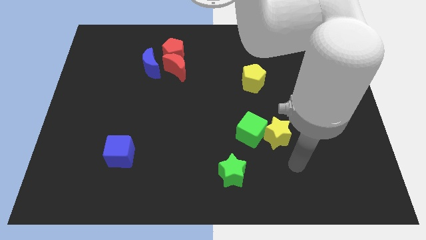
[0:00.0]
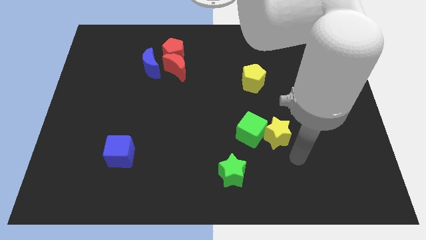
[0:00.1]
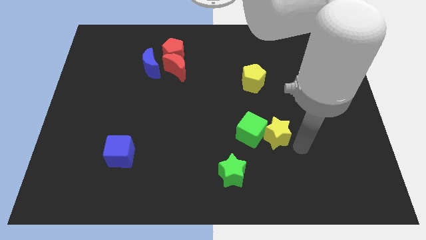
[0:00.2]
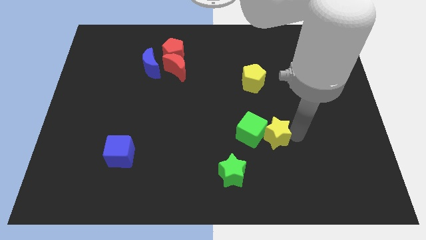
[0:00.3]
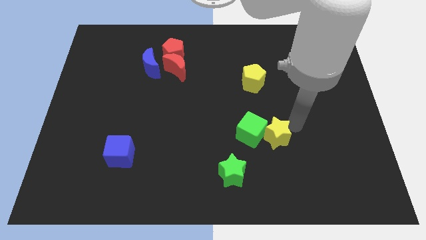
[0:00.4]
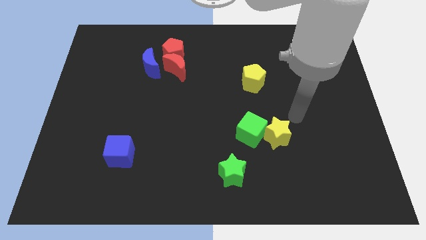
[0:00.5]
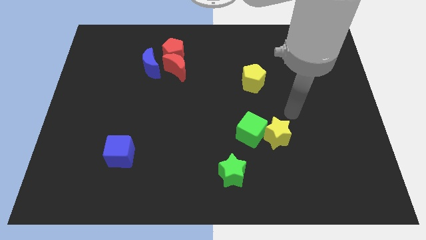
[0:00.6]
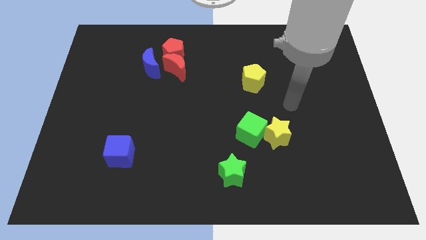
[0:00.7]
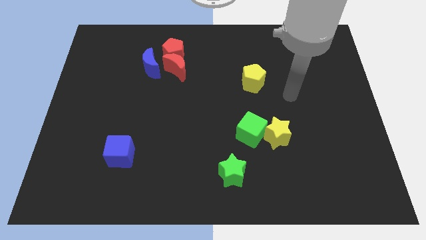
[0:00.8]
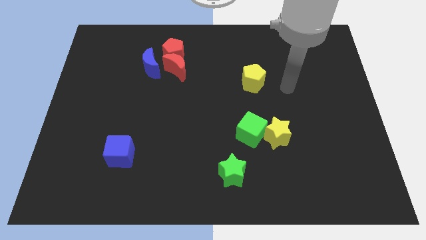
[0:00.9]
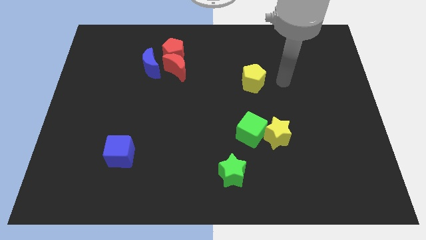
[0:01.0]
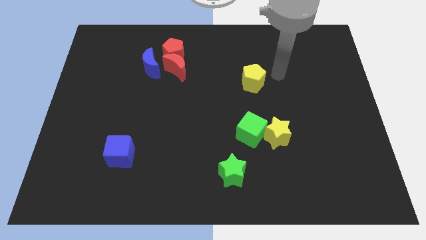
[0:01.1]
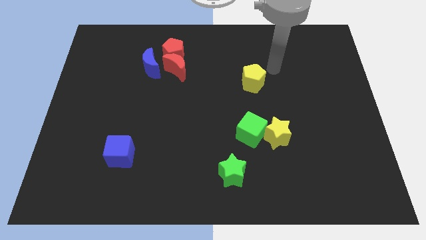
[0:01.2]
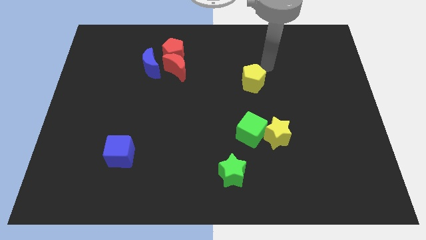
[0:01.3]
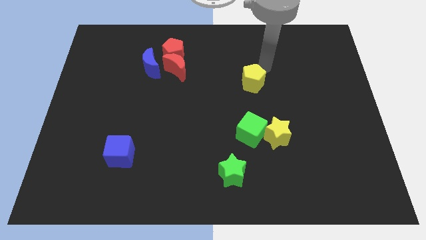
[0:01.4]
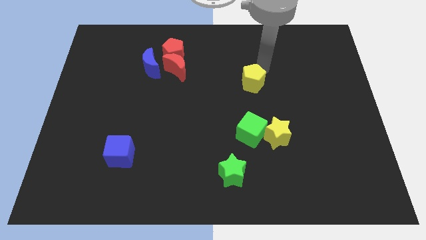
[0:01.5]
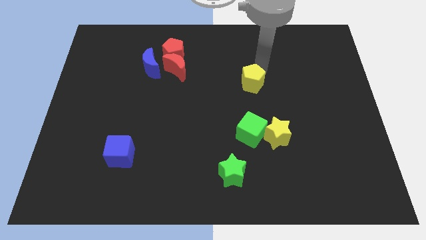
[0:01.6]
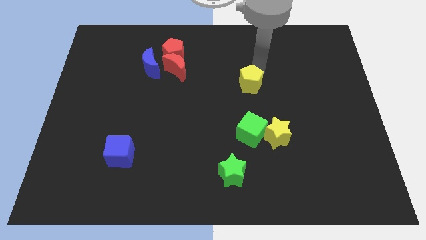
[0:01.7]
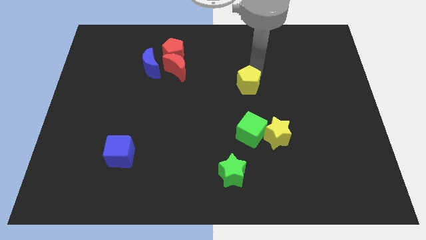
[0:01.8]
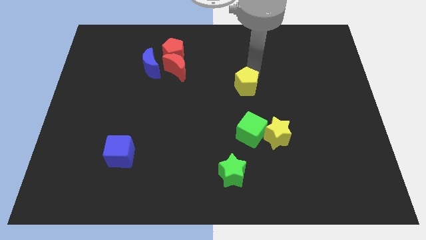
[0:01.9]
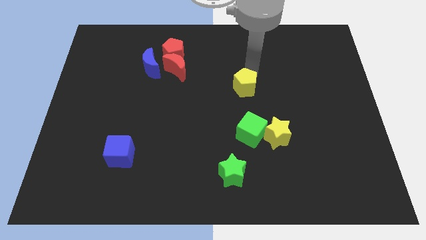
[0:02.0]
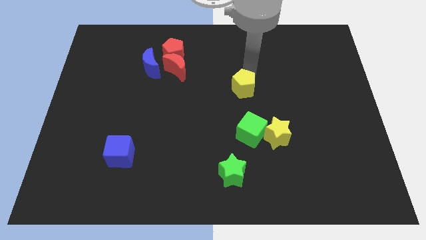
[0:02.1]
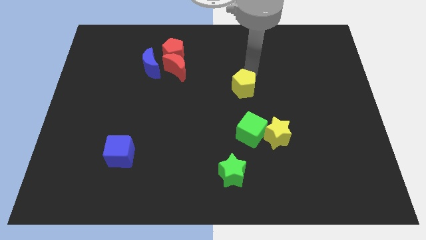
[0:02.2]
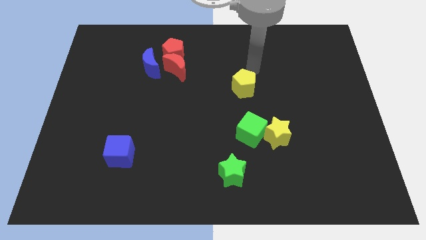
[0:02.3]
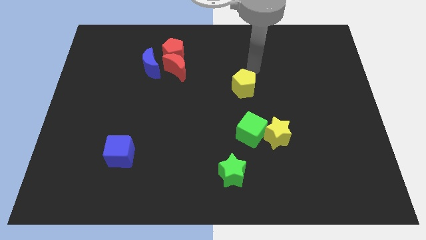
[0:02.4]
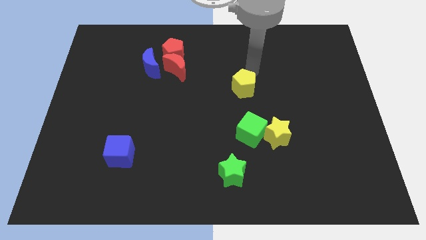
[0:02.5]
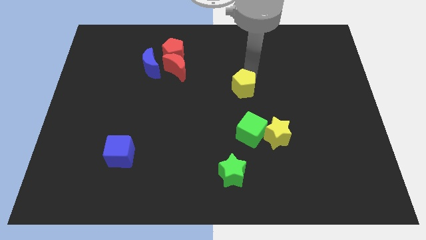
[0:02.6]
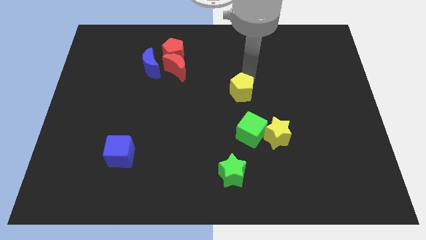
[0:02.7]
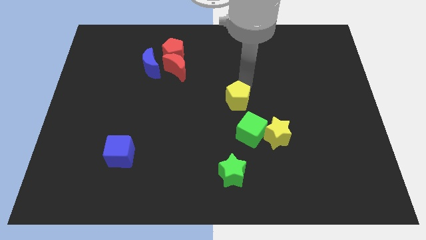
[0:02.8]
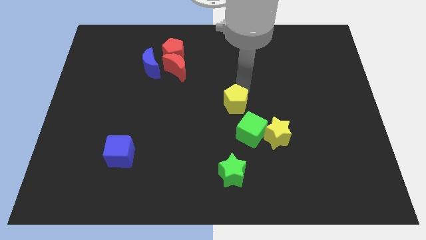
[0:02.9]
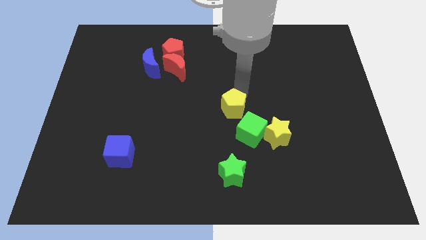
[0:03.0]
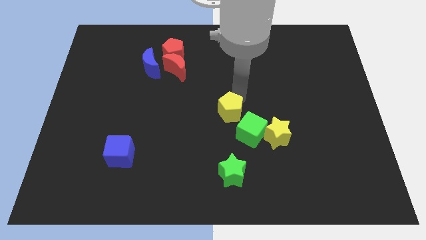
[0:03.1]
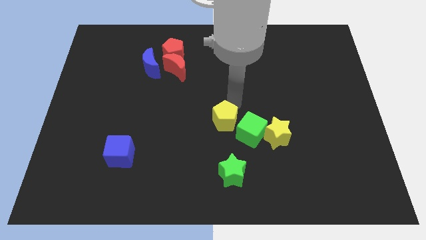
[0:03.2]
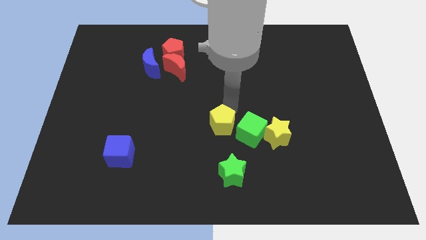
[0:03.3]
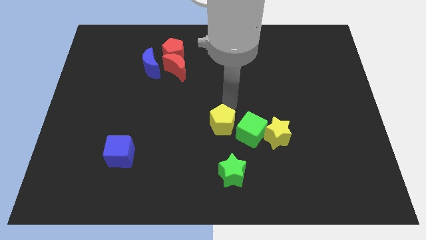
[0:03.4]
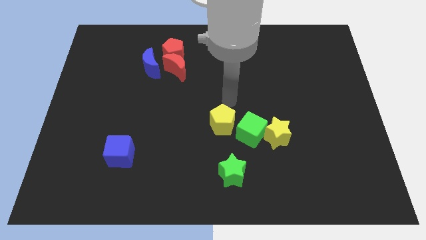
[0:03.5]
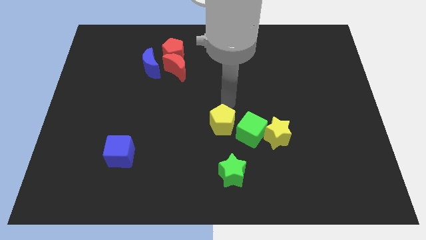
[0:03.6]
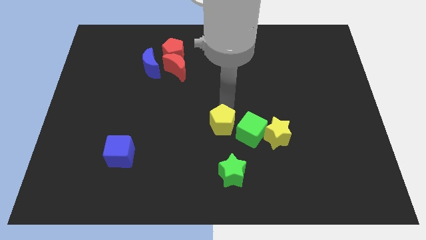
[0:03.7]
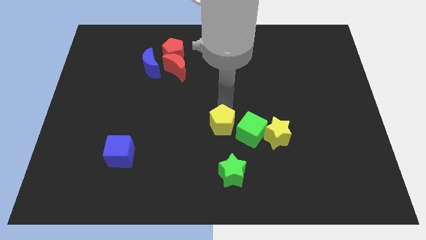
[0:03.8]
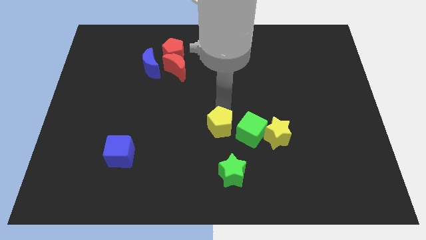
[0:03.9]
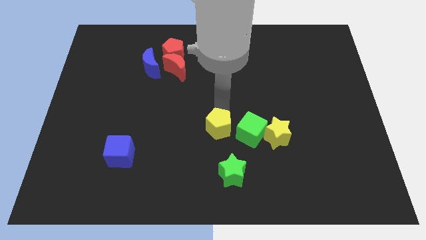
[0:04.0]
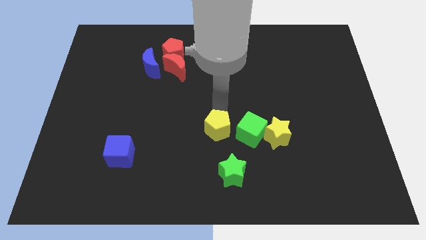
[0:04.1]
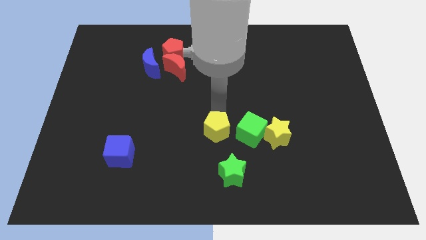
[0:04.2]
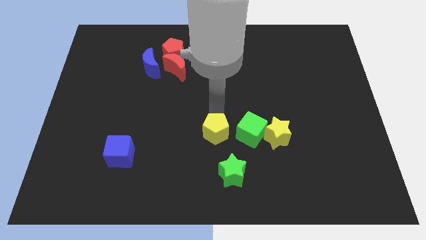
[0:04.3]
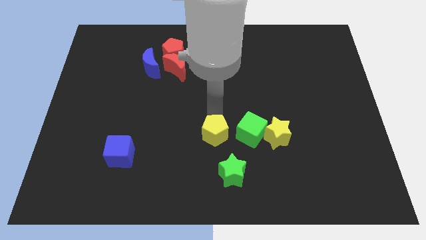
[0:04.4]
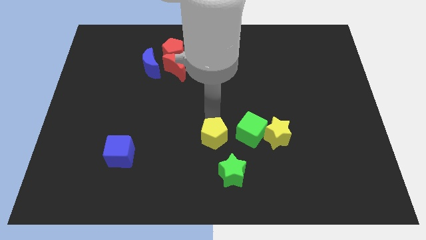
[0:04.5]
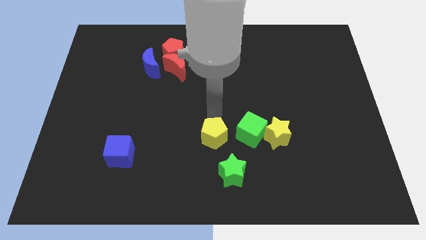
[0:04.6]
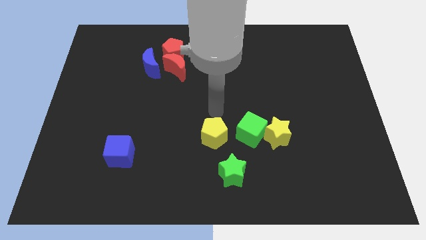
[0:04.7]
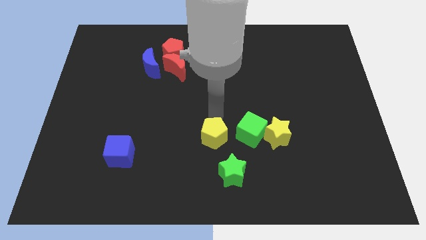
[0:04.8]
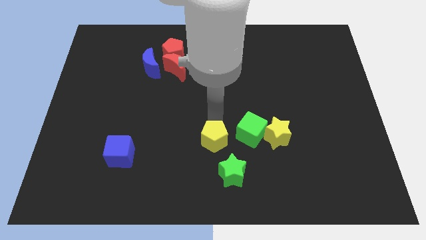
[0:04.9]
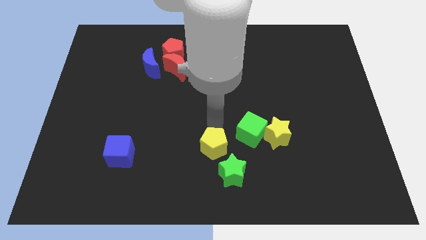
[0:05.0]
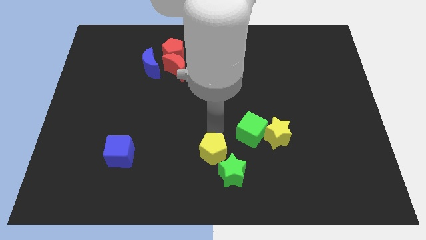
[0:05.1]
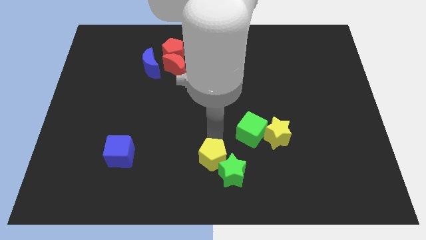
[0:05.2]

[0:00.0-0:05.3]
move the yellow pentagon to the bottom side

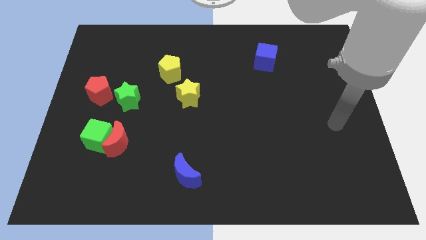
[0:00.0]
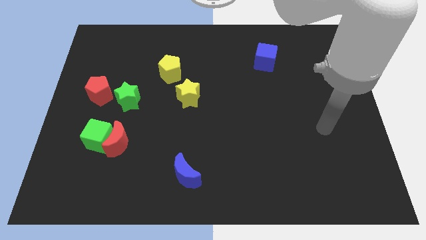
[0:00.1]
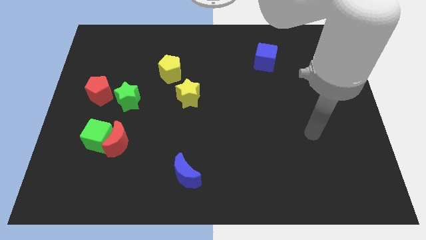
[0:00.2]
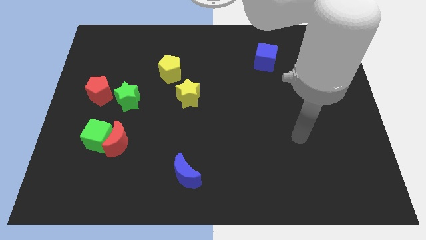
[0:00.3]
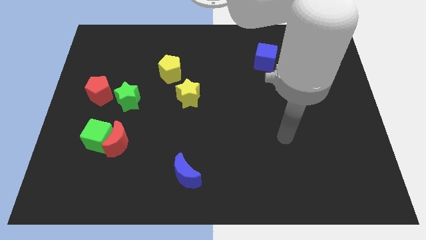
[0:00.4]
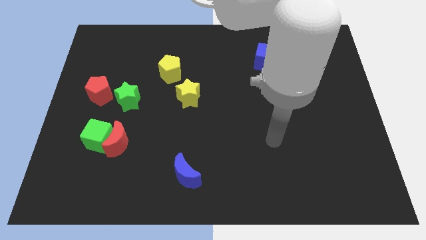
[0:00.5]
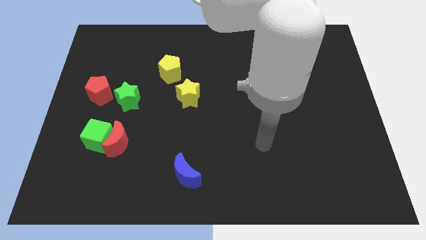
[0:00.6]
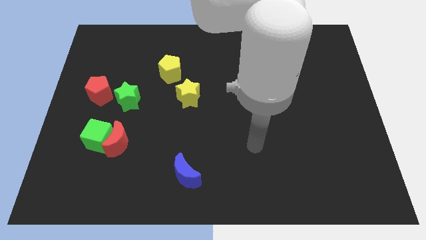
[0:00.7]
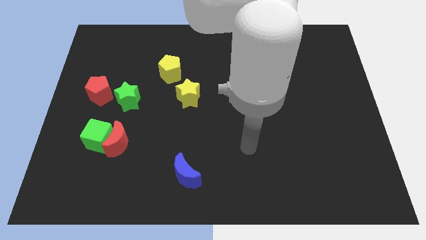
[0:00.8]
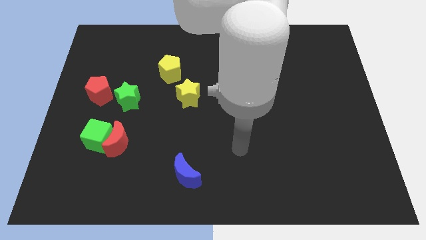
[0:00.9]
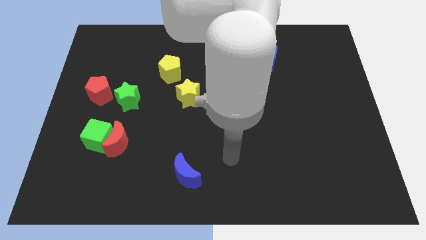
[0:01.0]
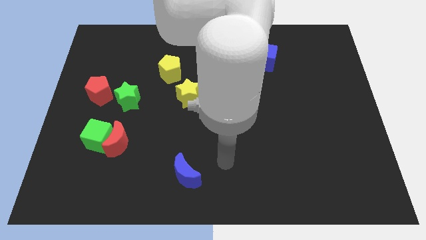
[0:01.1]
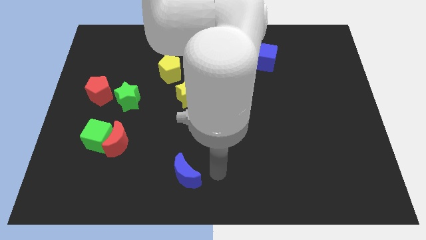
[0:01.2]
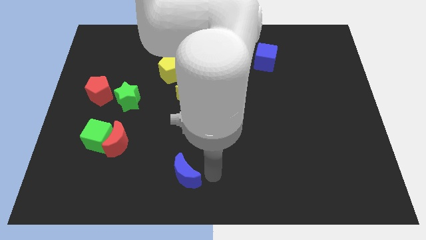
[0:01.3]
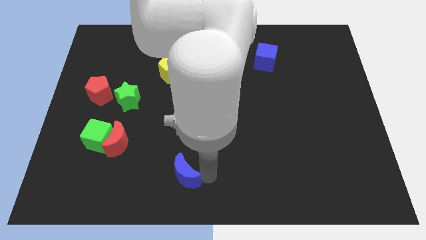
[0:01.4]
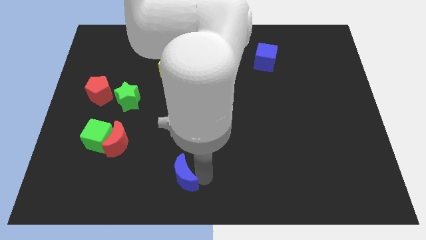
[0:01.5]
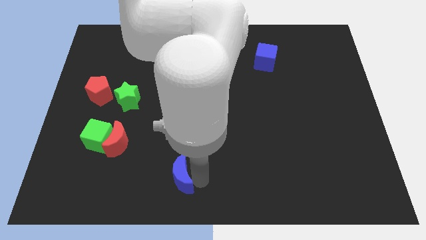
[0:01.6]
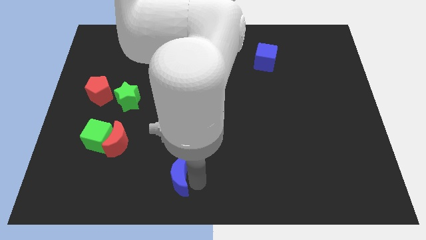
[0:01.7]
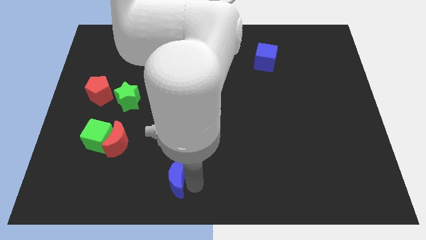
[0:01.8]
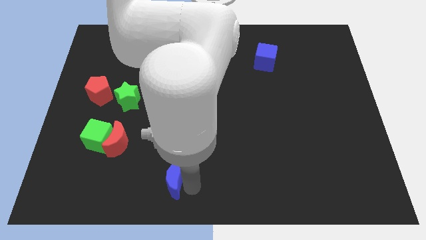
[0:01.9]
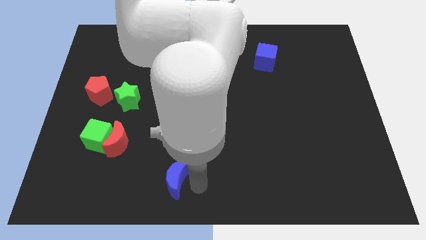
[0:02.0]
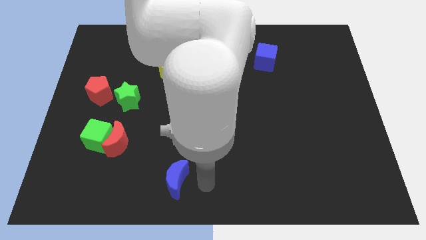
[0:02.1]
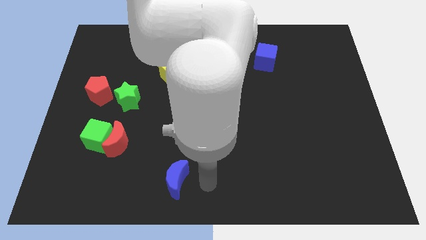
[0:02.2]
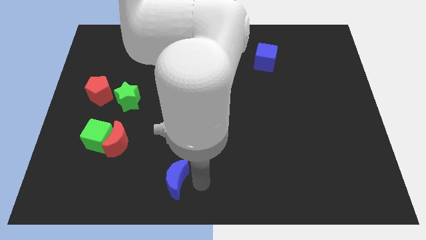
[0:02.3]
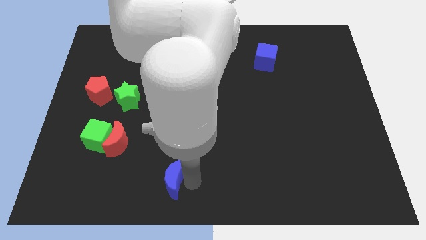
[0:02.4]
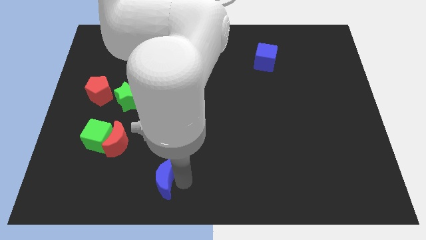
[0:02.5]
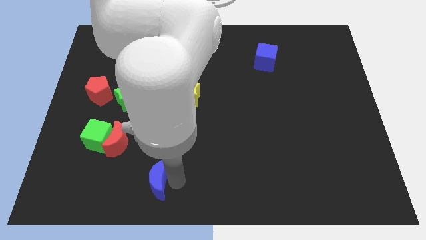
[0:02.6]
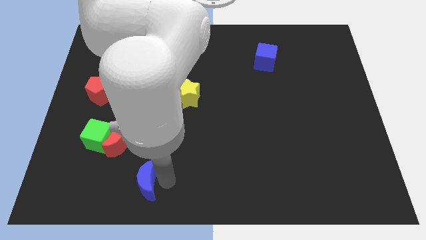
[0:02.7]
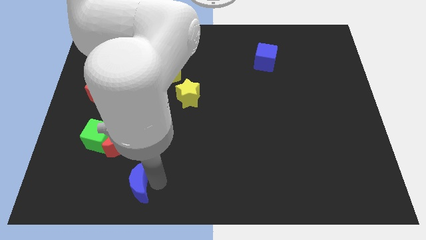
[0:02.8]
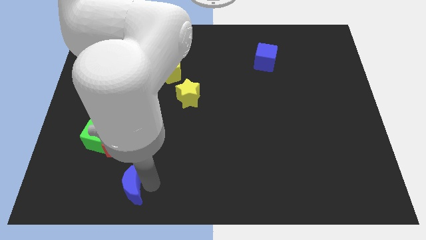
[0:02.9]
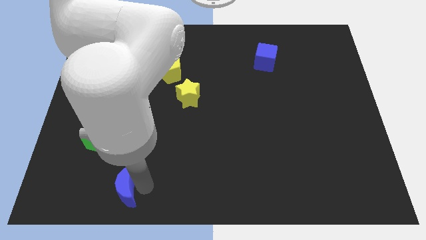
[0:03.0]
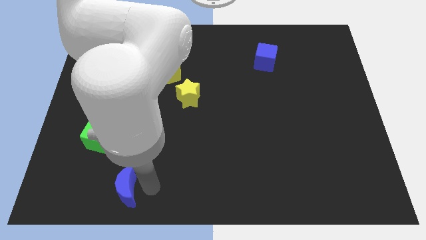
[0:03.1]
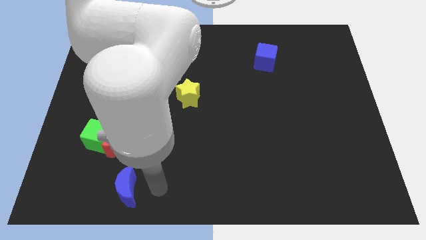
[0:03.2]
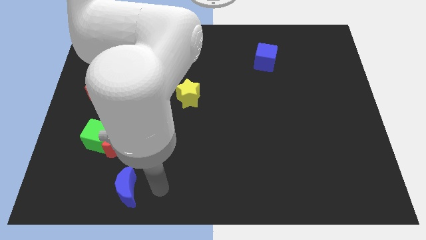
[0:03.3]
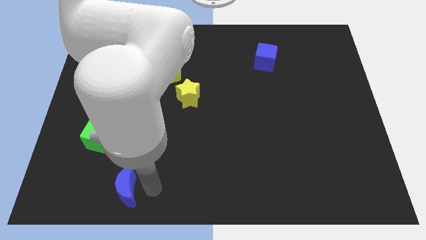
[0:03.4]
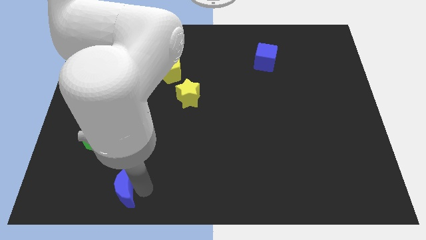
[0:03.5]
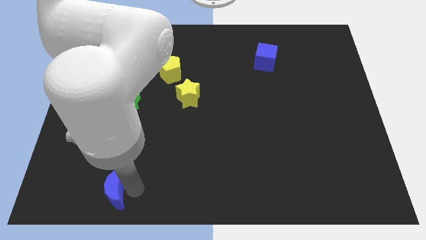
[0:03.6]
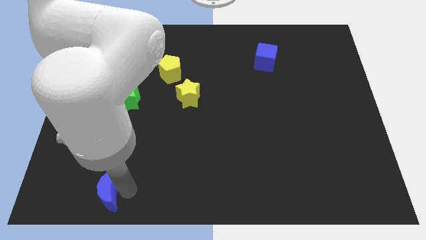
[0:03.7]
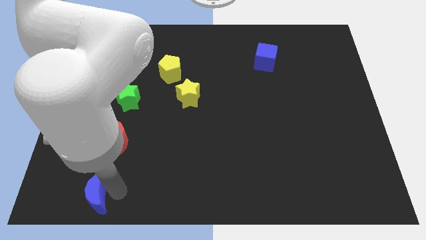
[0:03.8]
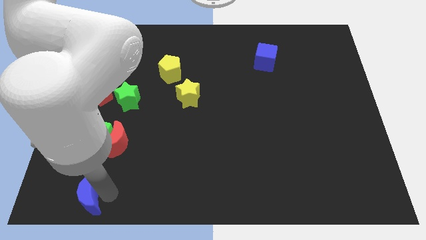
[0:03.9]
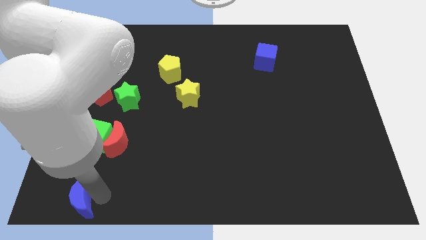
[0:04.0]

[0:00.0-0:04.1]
push the blue moon to the bottom left corner
